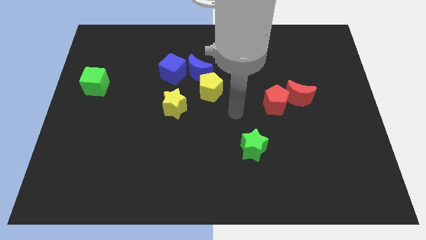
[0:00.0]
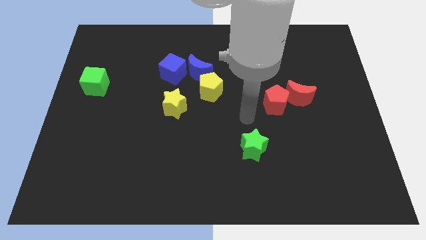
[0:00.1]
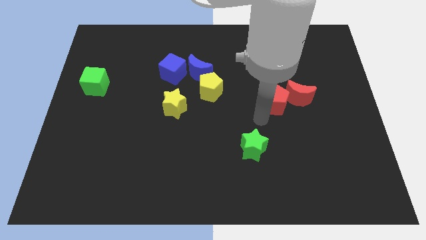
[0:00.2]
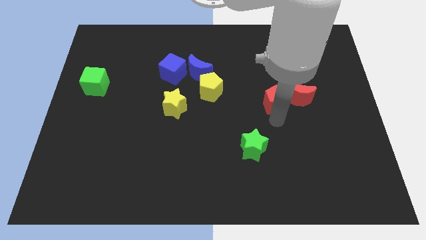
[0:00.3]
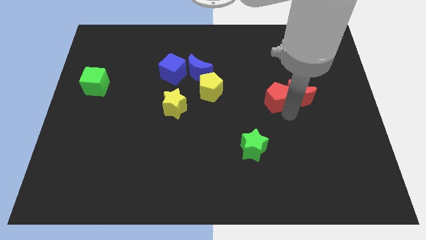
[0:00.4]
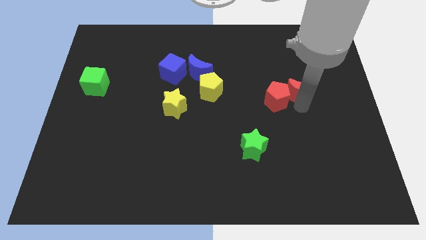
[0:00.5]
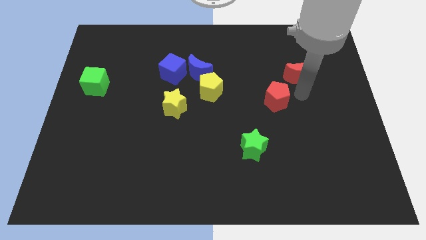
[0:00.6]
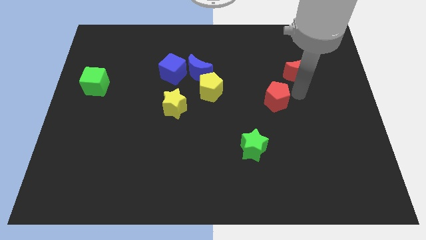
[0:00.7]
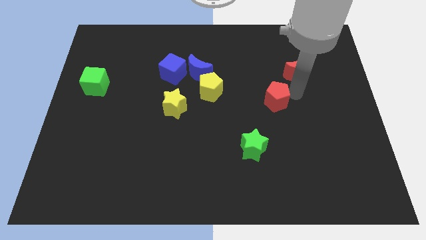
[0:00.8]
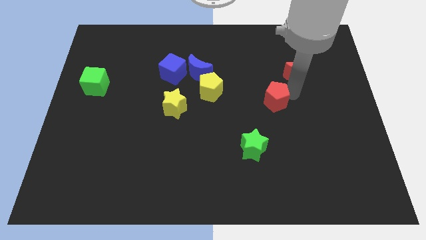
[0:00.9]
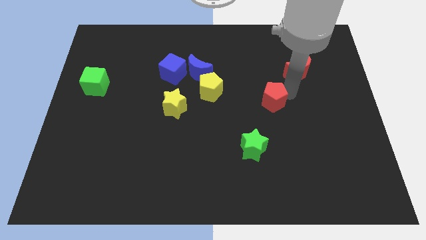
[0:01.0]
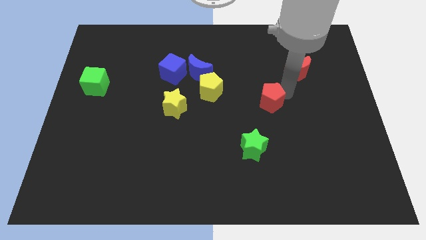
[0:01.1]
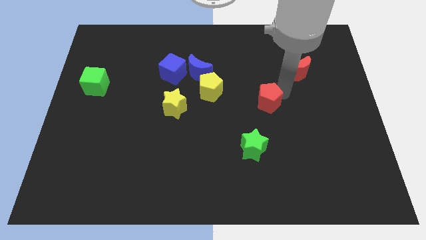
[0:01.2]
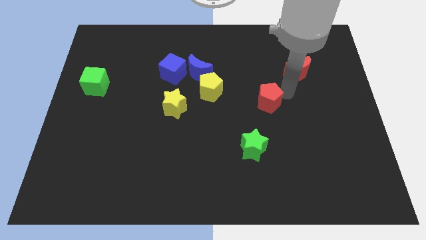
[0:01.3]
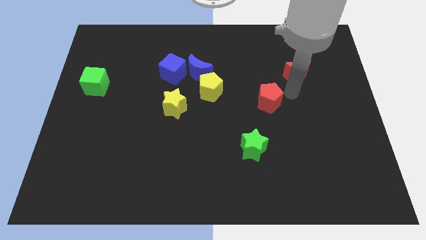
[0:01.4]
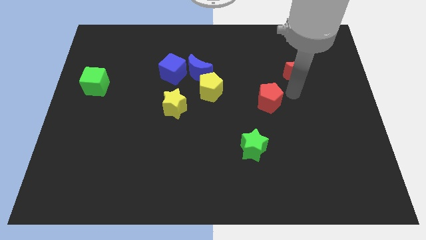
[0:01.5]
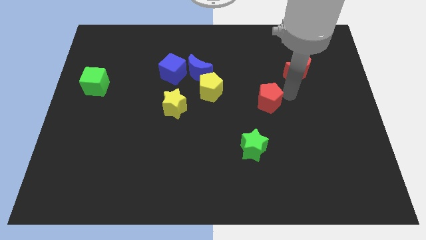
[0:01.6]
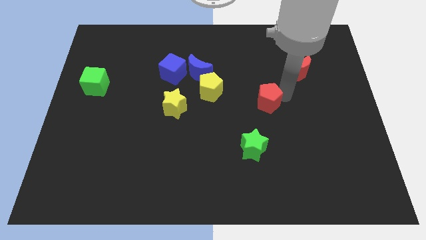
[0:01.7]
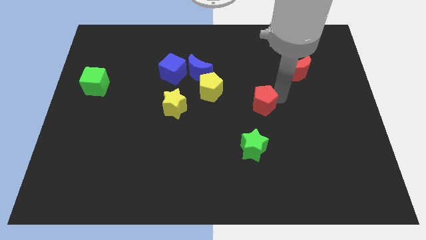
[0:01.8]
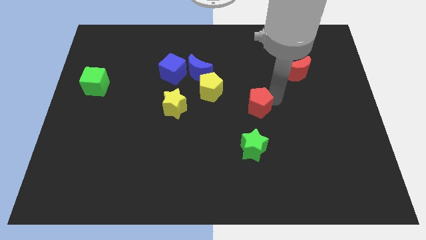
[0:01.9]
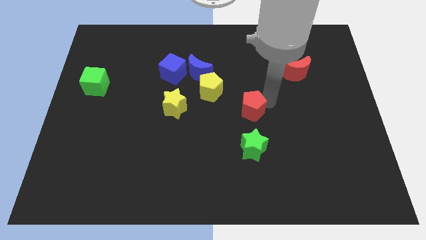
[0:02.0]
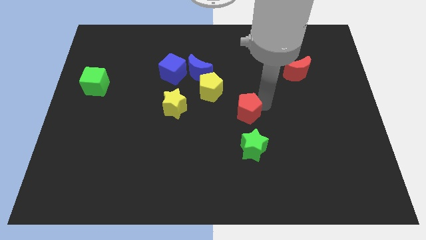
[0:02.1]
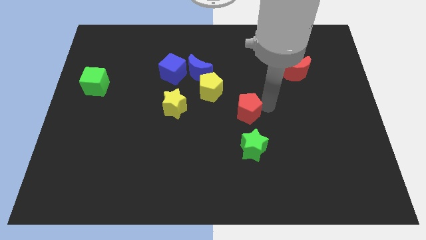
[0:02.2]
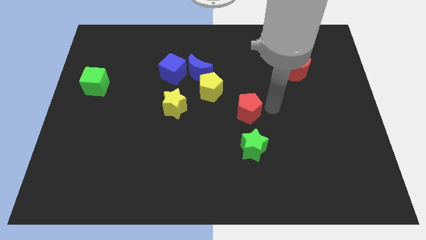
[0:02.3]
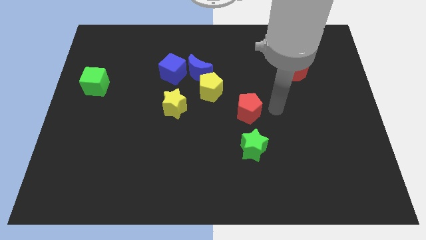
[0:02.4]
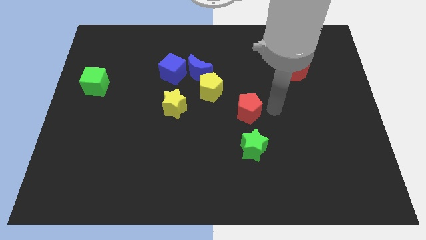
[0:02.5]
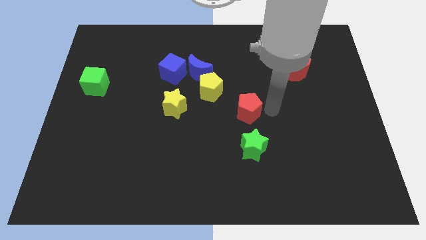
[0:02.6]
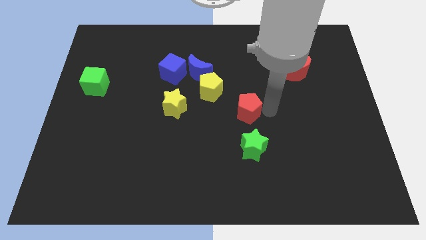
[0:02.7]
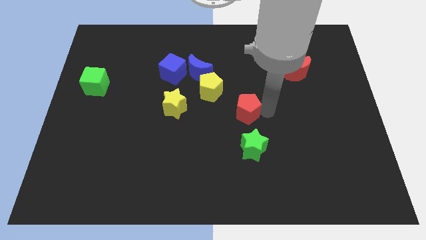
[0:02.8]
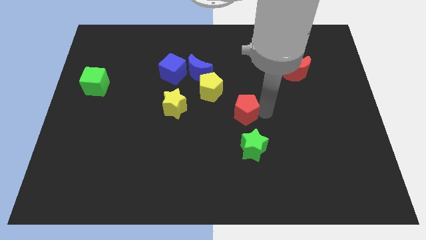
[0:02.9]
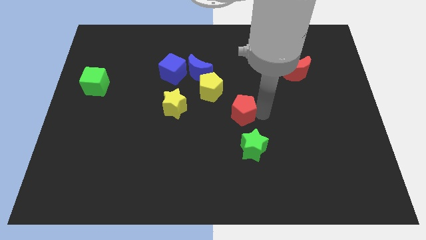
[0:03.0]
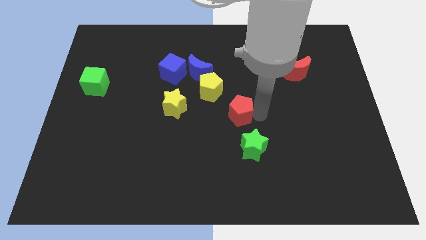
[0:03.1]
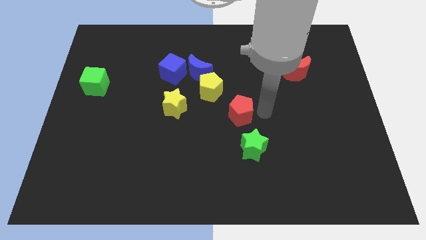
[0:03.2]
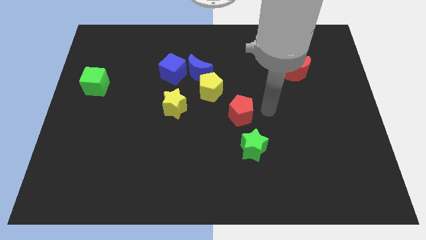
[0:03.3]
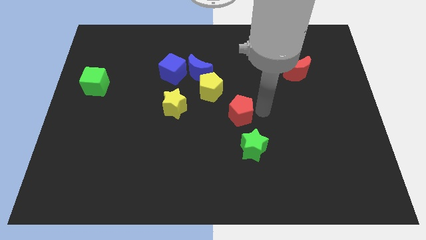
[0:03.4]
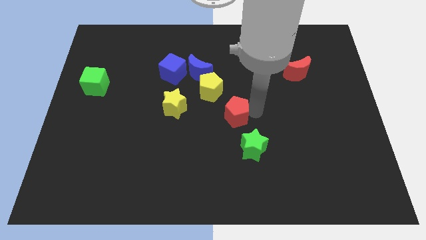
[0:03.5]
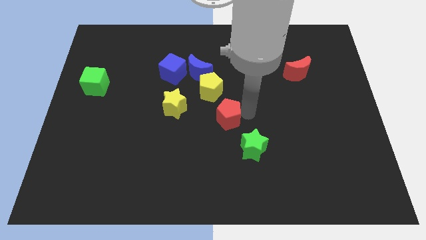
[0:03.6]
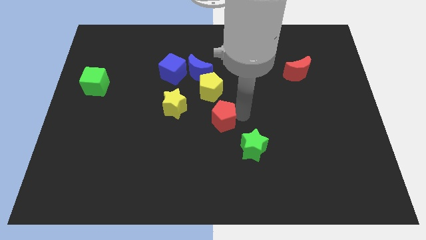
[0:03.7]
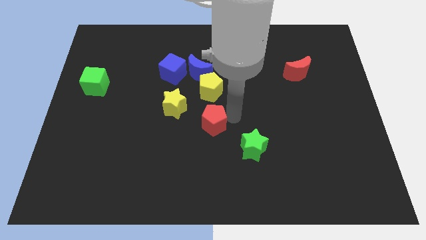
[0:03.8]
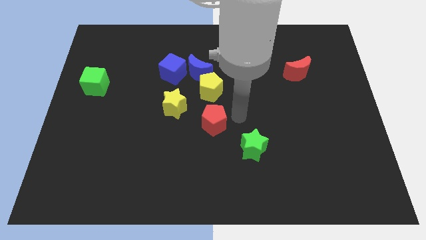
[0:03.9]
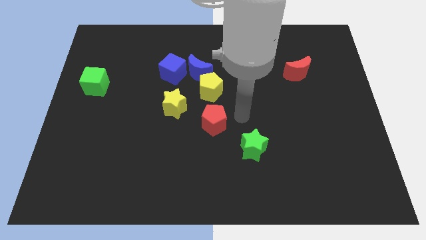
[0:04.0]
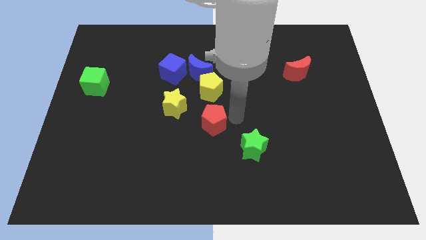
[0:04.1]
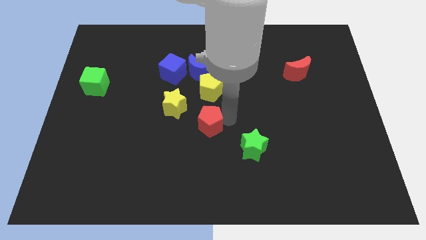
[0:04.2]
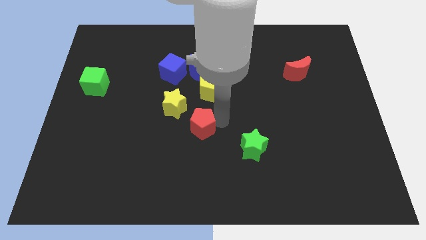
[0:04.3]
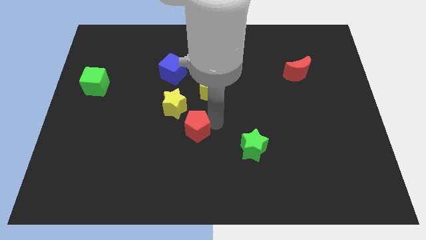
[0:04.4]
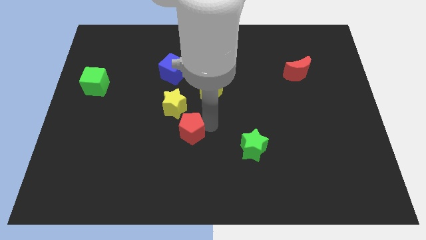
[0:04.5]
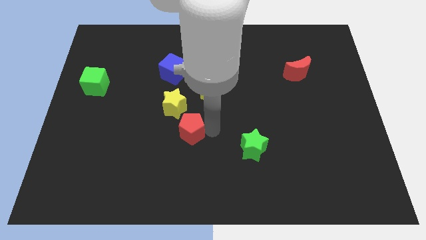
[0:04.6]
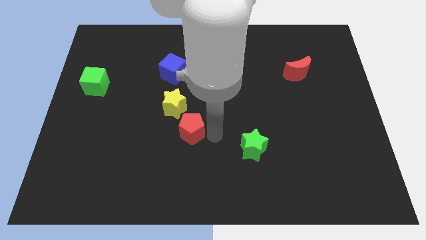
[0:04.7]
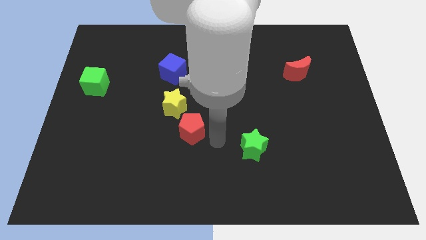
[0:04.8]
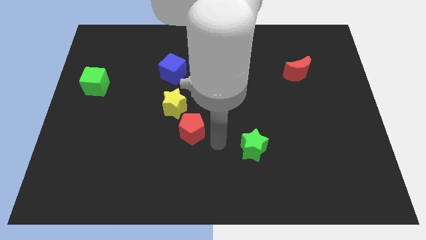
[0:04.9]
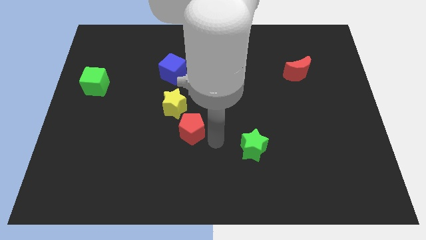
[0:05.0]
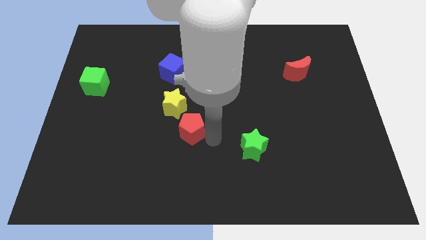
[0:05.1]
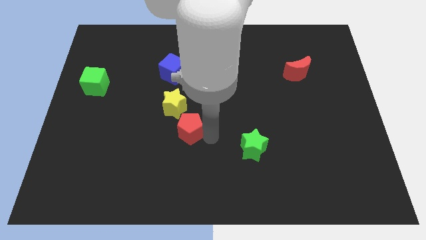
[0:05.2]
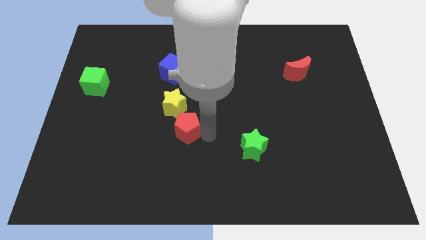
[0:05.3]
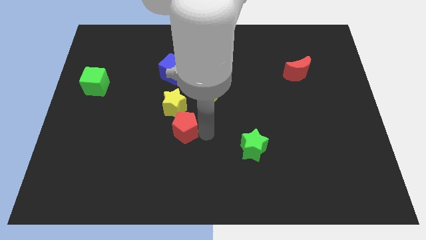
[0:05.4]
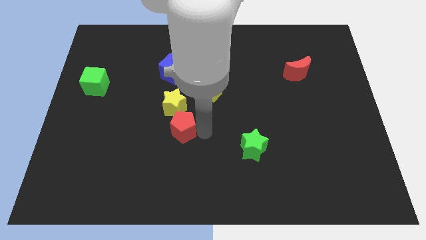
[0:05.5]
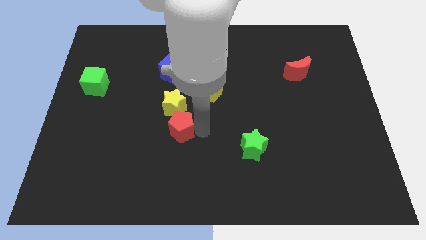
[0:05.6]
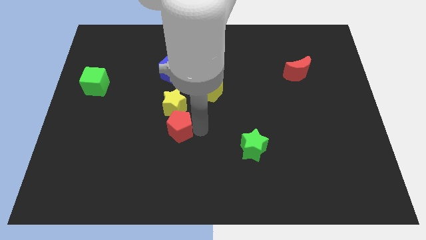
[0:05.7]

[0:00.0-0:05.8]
push the red pentagon to the left

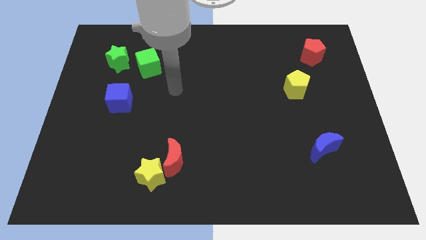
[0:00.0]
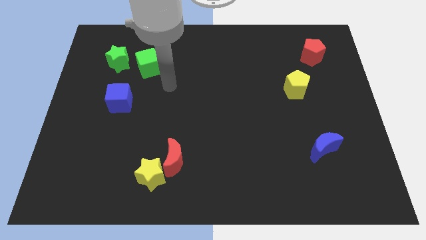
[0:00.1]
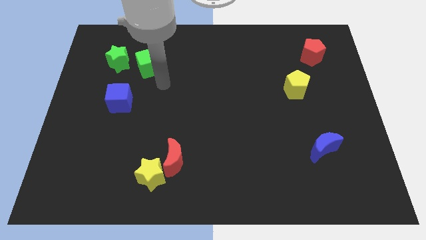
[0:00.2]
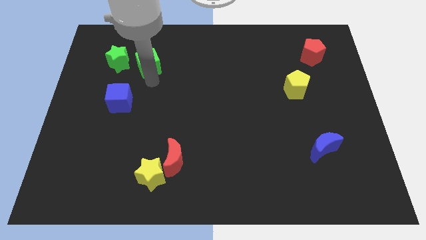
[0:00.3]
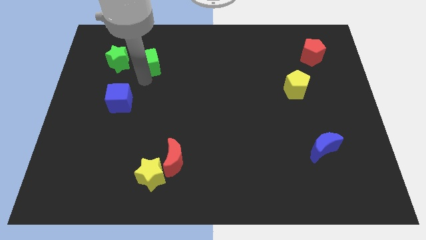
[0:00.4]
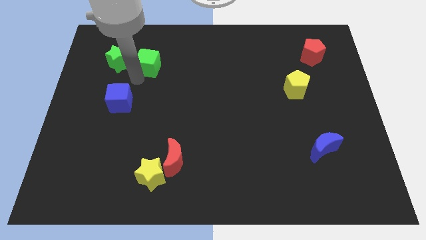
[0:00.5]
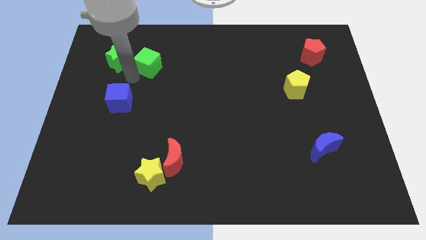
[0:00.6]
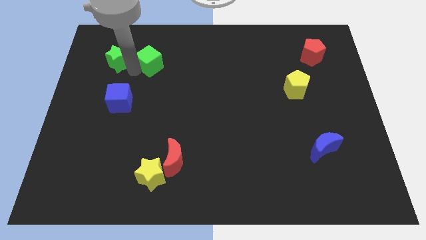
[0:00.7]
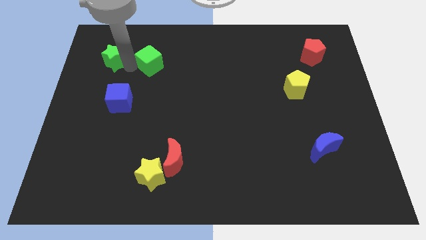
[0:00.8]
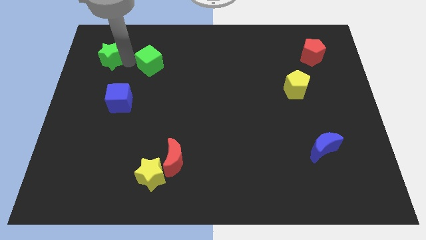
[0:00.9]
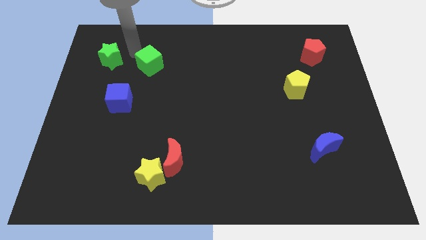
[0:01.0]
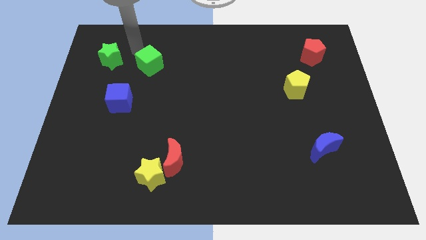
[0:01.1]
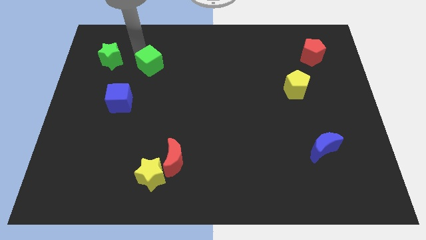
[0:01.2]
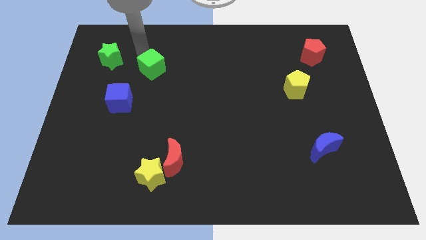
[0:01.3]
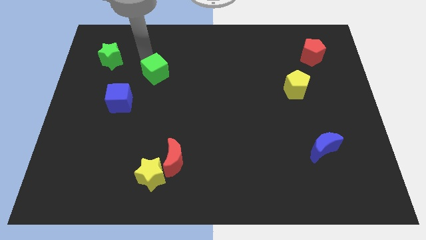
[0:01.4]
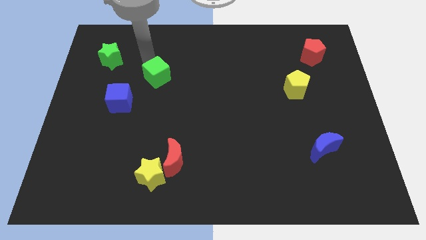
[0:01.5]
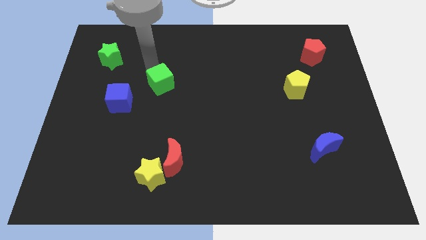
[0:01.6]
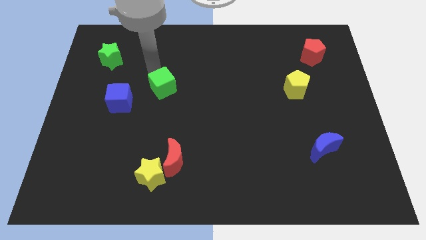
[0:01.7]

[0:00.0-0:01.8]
push the green cube down and right diagonally a little

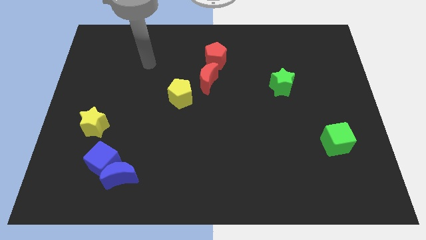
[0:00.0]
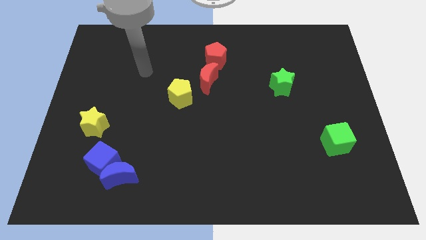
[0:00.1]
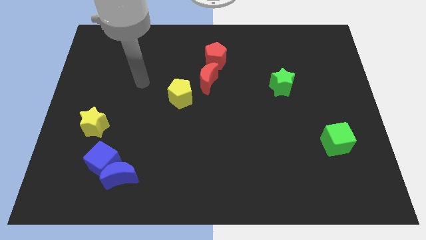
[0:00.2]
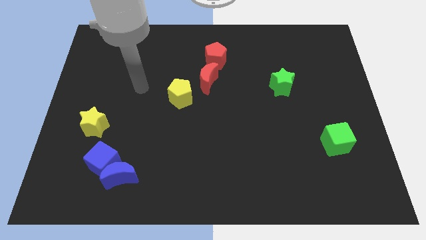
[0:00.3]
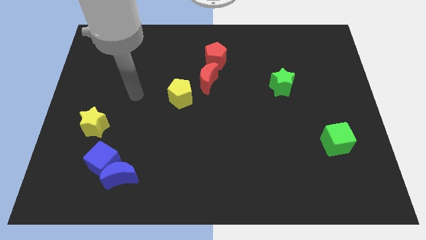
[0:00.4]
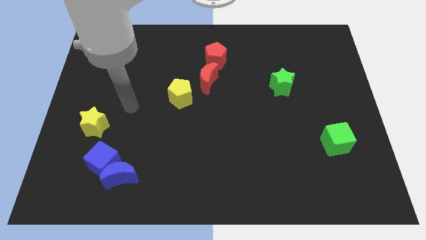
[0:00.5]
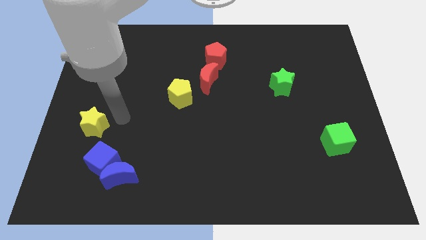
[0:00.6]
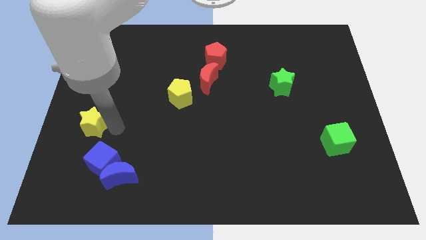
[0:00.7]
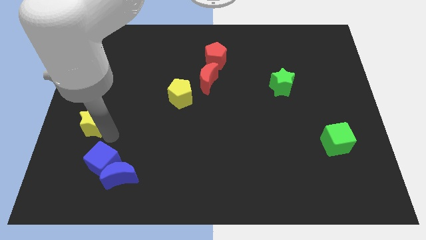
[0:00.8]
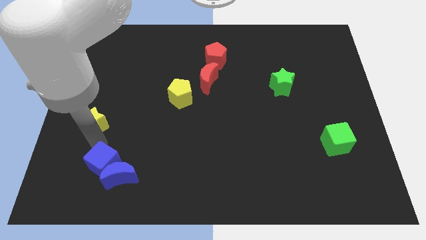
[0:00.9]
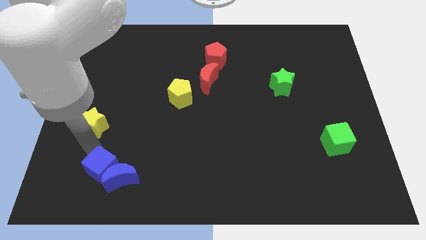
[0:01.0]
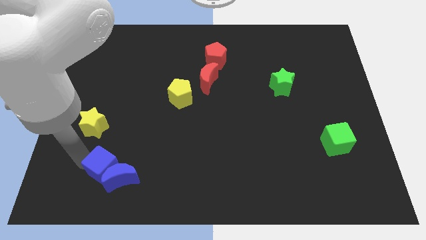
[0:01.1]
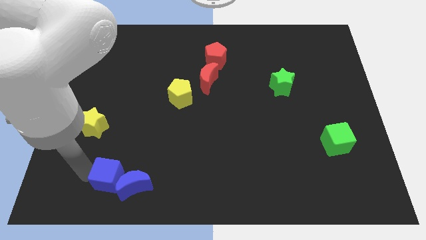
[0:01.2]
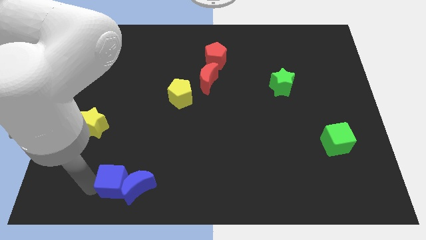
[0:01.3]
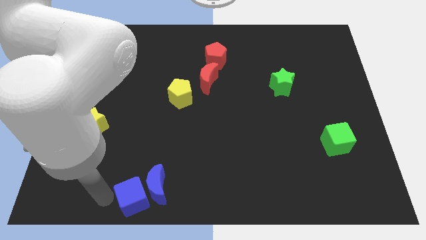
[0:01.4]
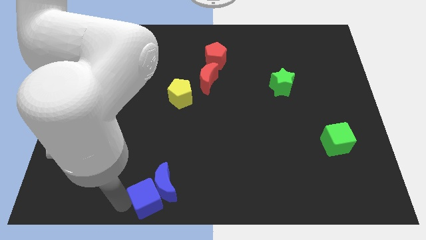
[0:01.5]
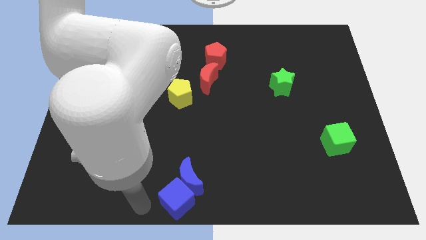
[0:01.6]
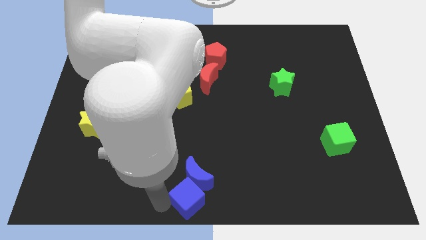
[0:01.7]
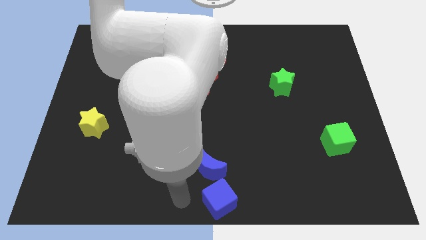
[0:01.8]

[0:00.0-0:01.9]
slightly move the blue moon upwards and to the right
